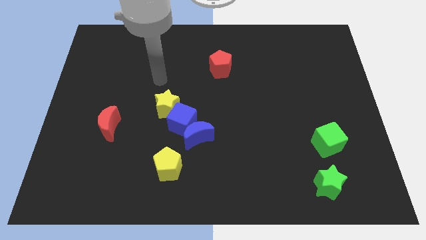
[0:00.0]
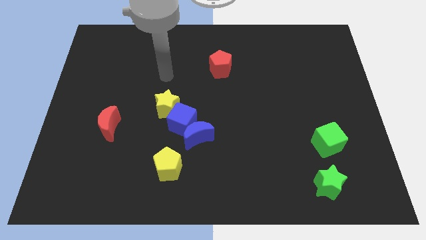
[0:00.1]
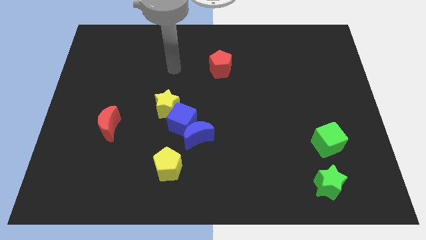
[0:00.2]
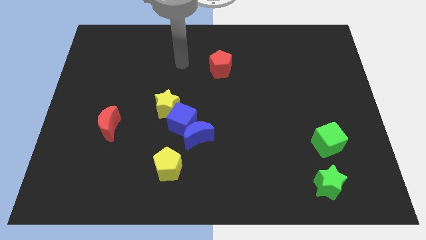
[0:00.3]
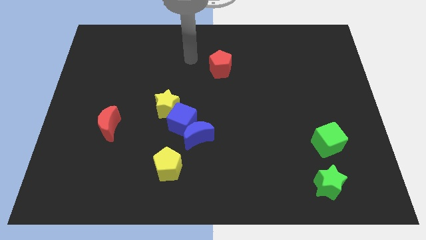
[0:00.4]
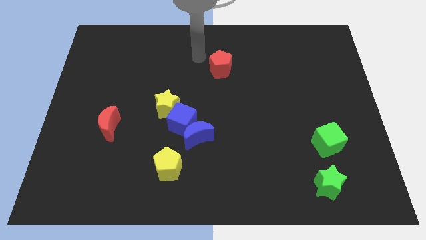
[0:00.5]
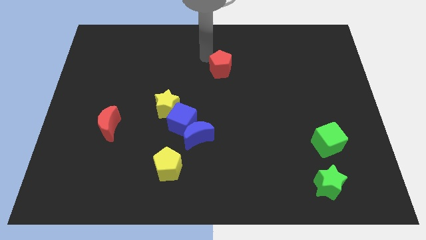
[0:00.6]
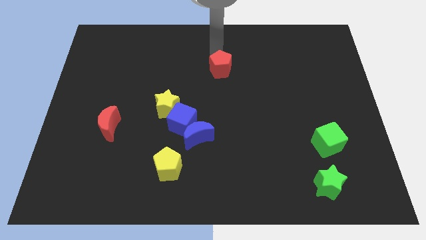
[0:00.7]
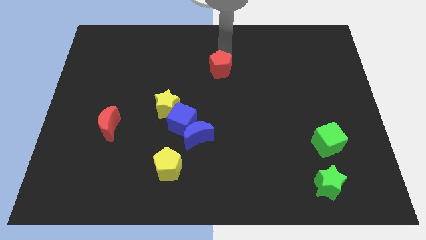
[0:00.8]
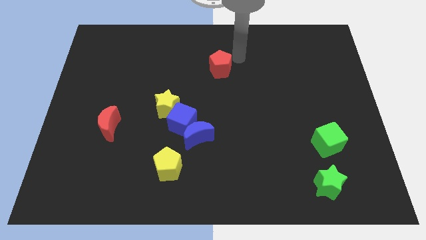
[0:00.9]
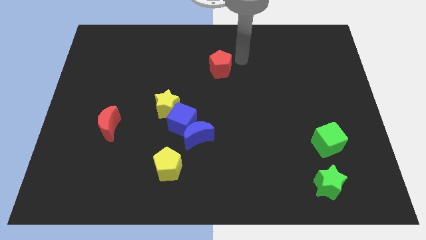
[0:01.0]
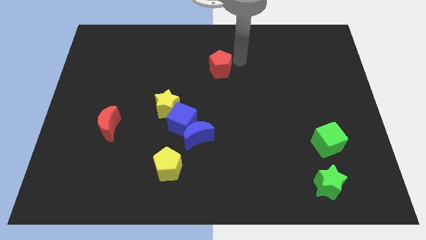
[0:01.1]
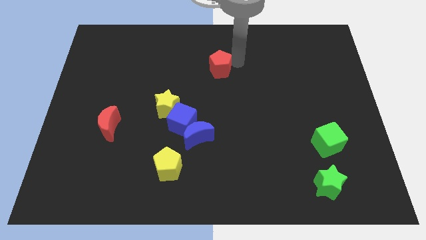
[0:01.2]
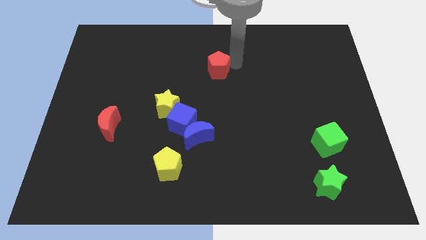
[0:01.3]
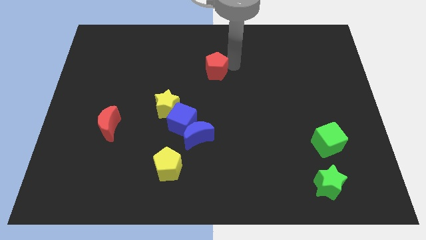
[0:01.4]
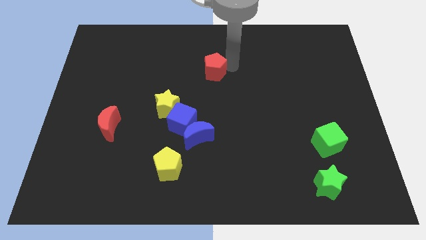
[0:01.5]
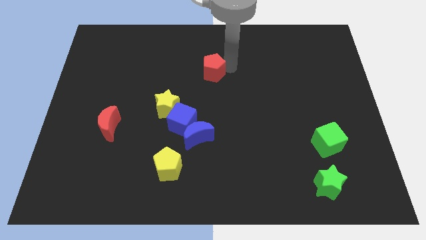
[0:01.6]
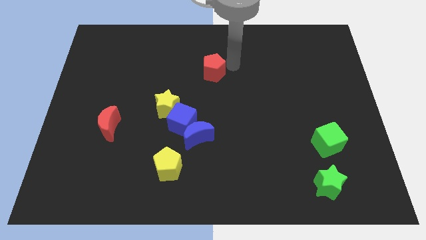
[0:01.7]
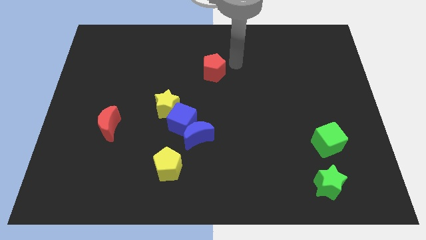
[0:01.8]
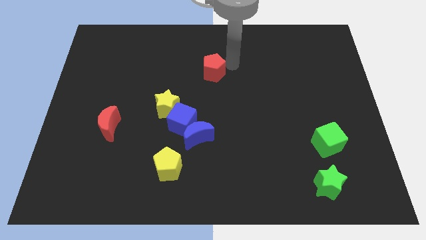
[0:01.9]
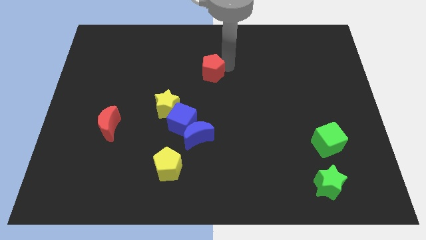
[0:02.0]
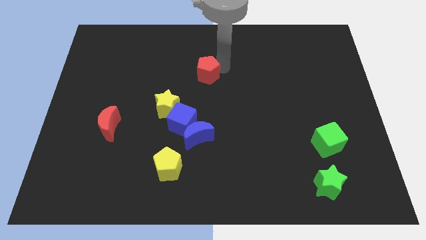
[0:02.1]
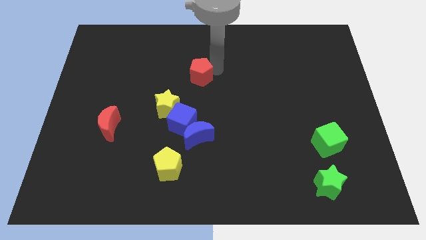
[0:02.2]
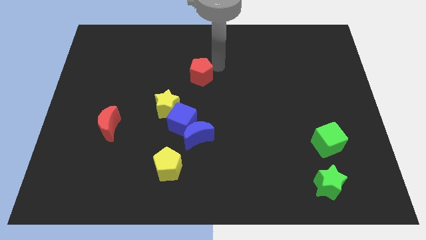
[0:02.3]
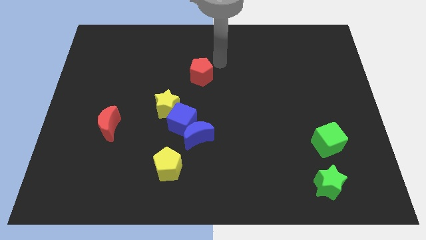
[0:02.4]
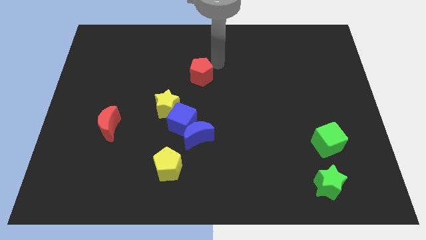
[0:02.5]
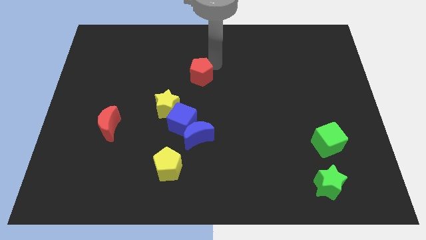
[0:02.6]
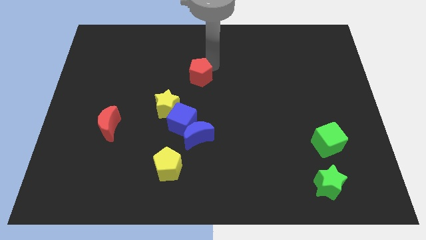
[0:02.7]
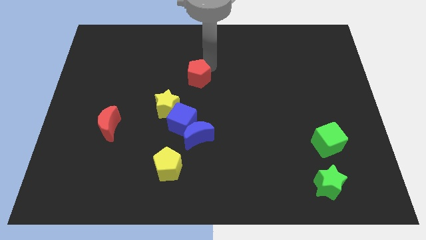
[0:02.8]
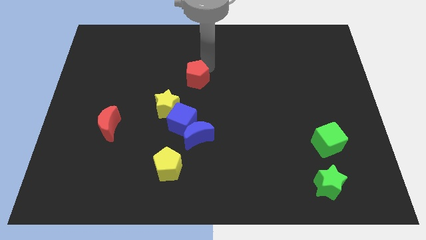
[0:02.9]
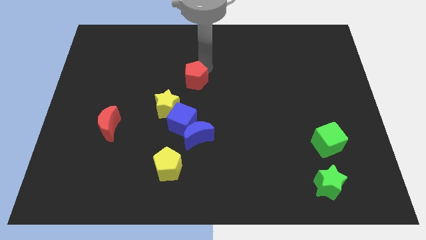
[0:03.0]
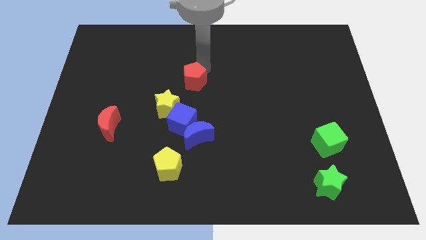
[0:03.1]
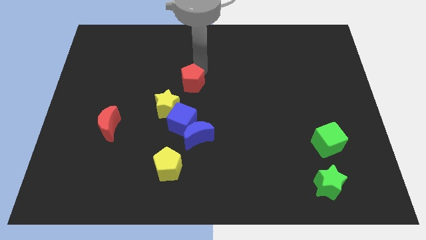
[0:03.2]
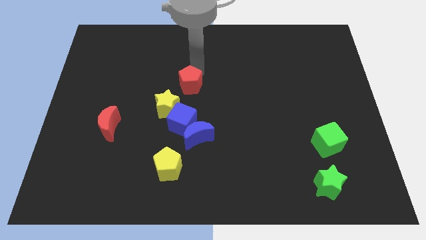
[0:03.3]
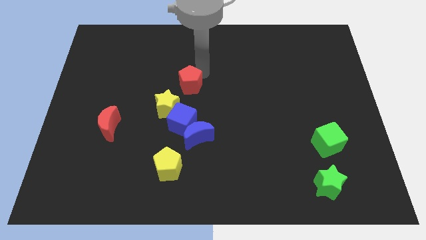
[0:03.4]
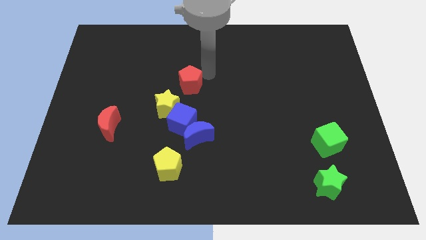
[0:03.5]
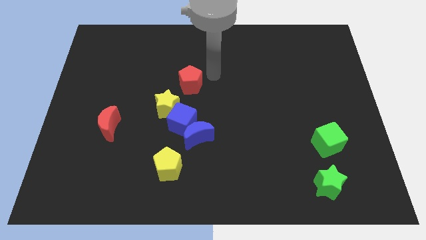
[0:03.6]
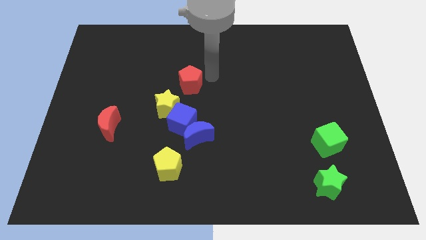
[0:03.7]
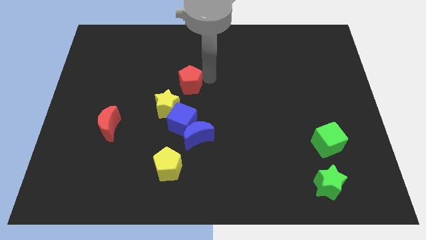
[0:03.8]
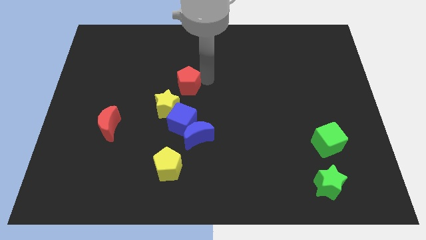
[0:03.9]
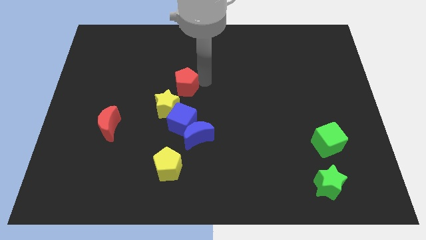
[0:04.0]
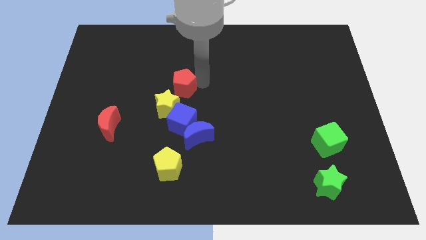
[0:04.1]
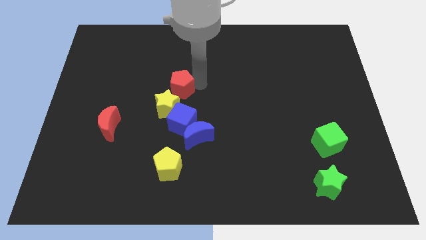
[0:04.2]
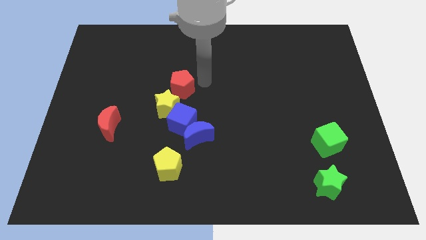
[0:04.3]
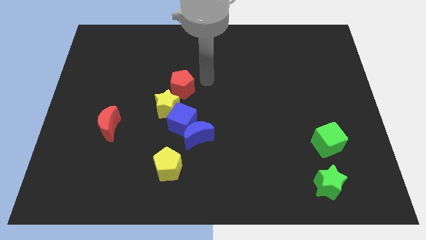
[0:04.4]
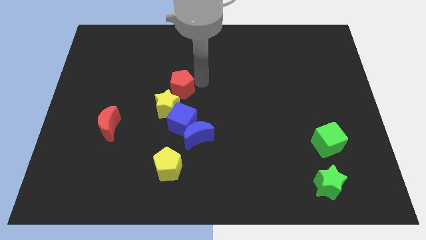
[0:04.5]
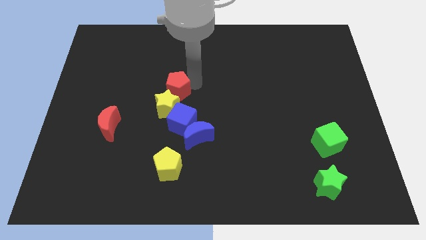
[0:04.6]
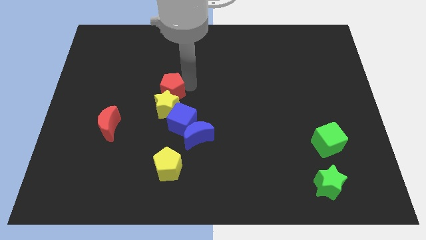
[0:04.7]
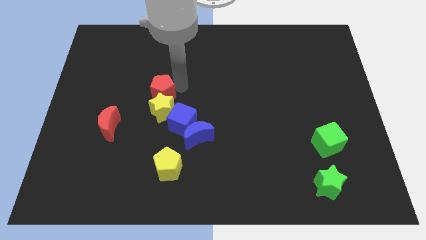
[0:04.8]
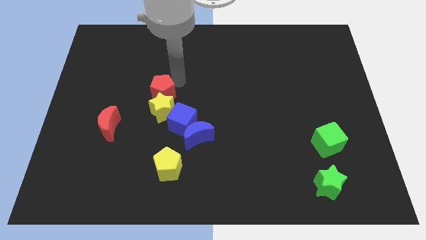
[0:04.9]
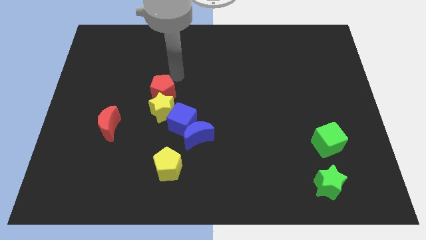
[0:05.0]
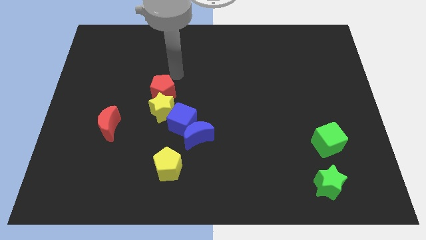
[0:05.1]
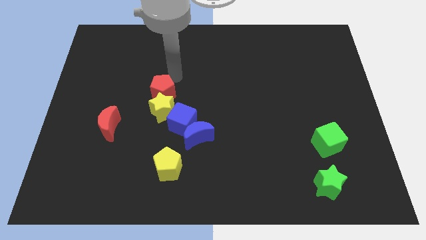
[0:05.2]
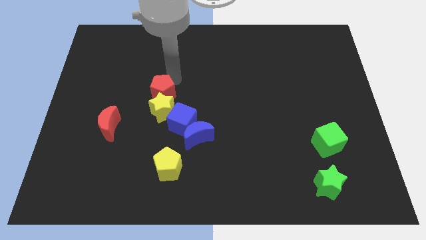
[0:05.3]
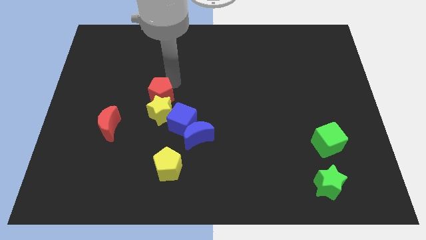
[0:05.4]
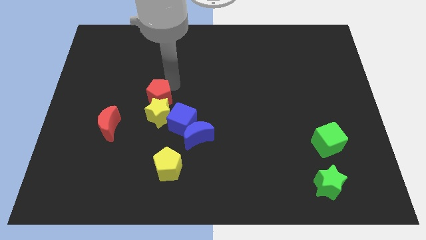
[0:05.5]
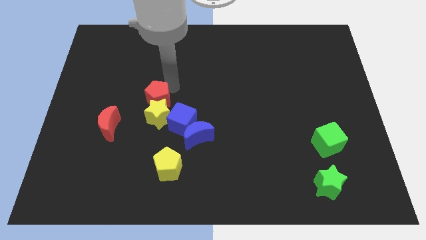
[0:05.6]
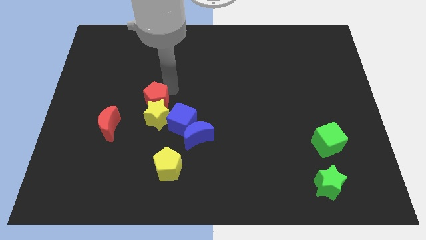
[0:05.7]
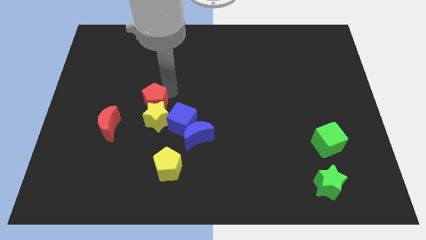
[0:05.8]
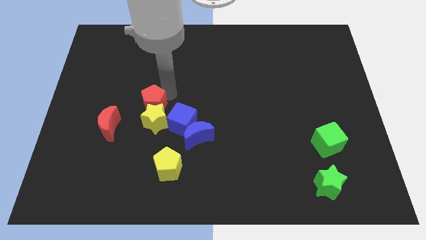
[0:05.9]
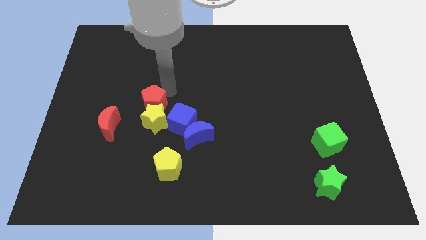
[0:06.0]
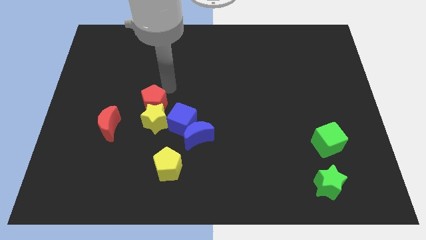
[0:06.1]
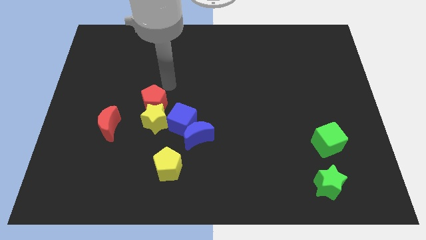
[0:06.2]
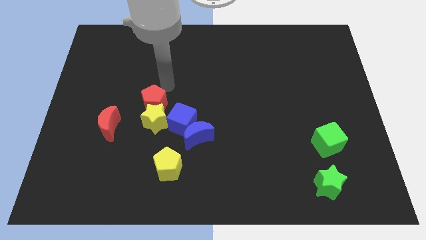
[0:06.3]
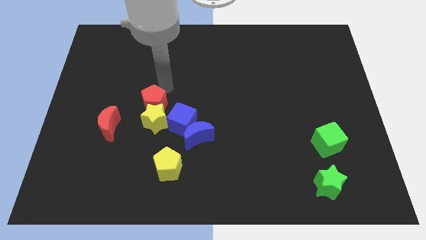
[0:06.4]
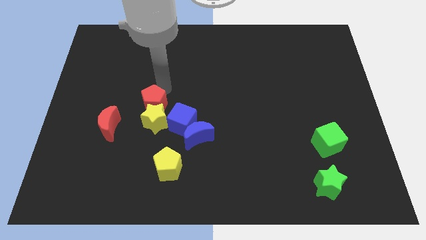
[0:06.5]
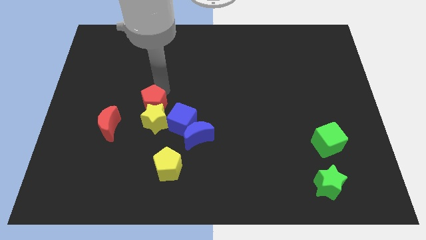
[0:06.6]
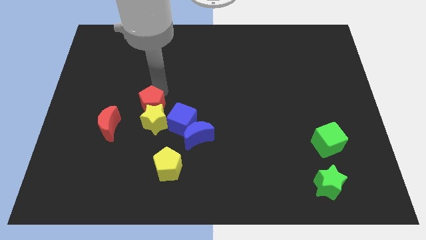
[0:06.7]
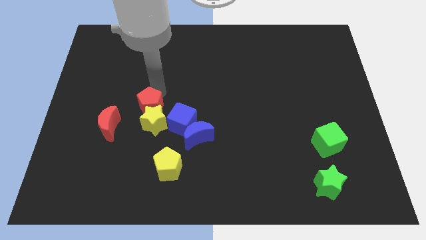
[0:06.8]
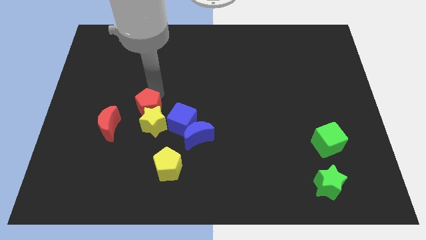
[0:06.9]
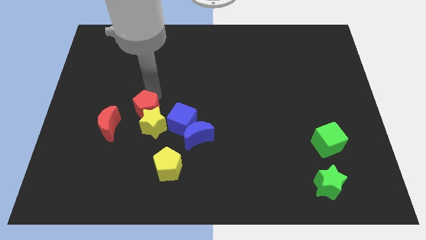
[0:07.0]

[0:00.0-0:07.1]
move the red pentagon just right of the red moon

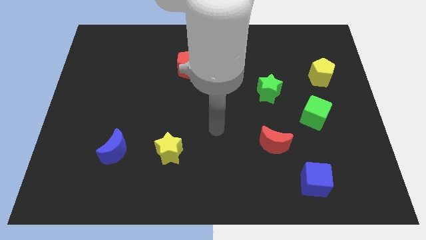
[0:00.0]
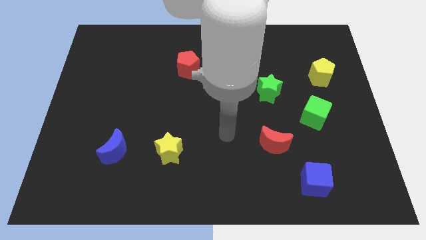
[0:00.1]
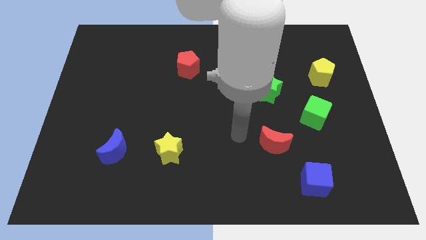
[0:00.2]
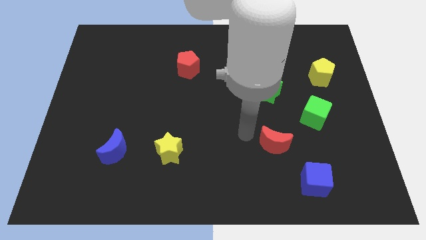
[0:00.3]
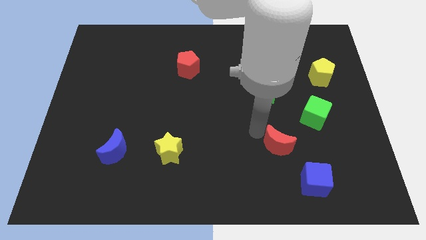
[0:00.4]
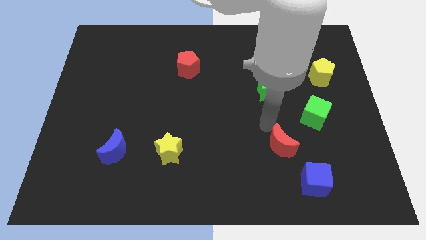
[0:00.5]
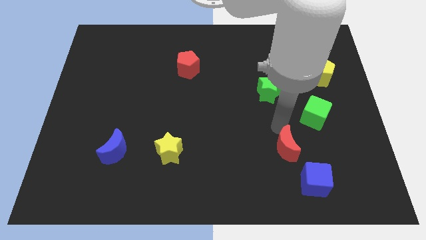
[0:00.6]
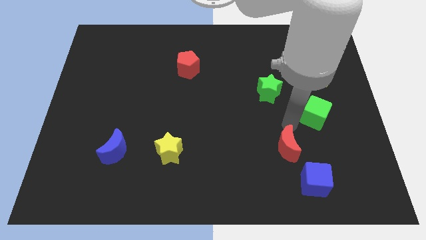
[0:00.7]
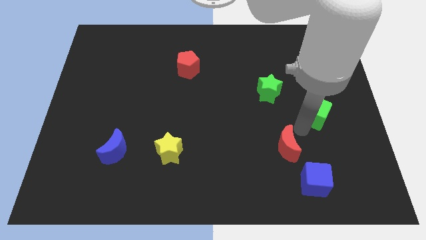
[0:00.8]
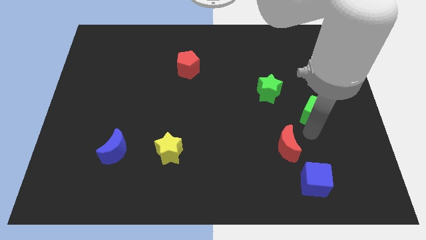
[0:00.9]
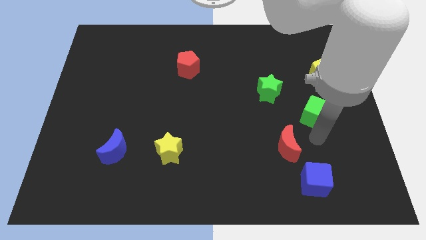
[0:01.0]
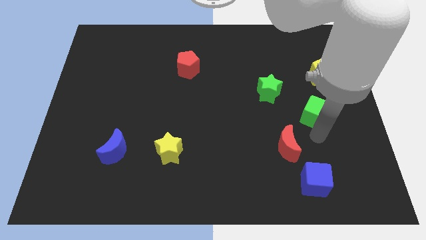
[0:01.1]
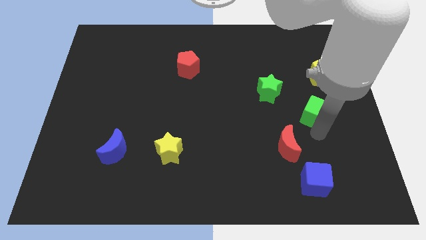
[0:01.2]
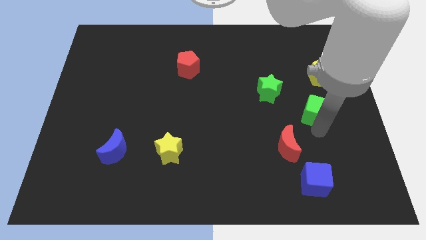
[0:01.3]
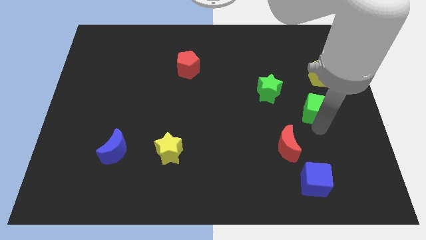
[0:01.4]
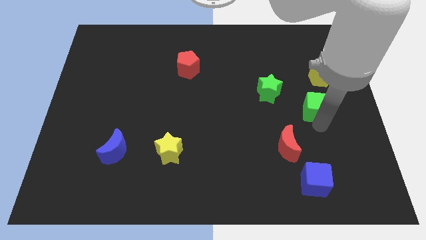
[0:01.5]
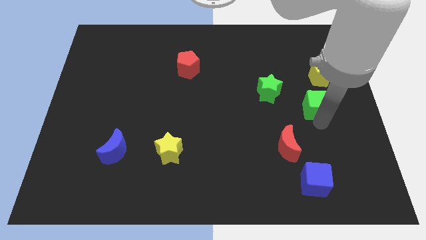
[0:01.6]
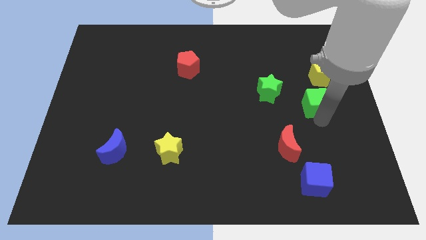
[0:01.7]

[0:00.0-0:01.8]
move the green cube just right of the green star
